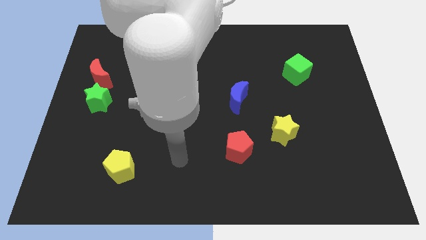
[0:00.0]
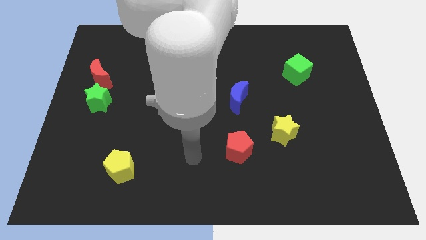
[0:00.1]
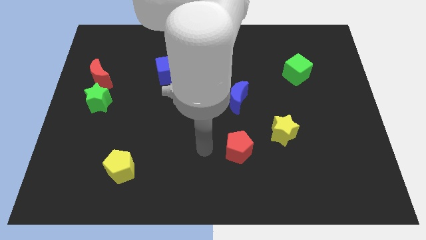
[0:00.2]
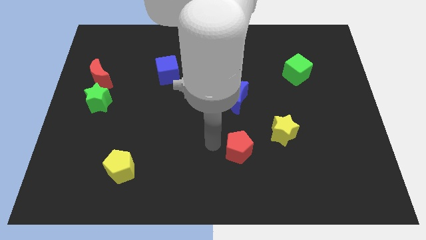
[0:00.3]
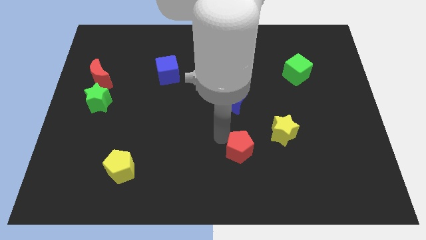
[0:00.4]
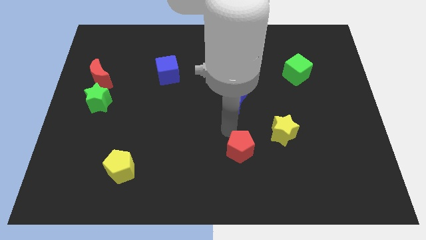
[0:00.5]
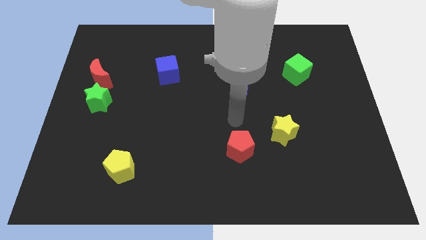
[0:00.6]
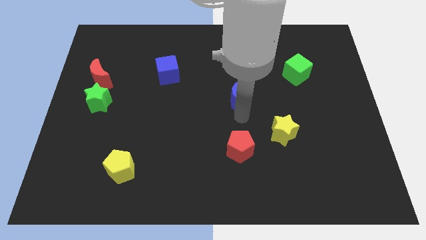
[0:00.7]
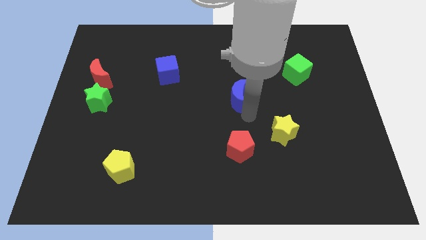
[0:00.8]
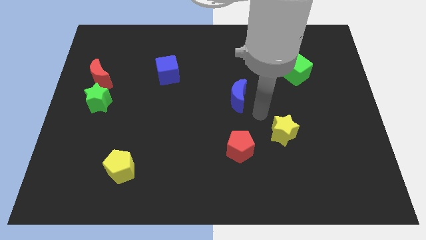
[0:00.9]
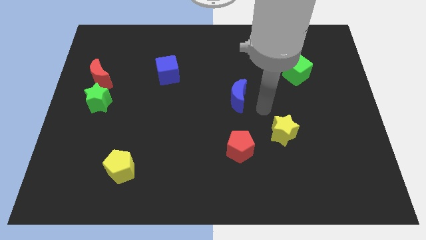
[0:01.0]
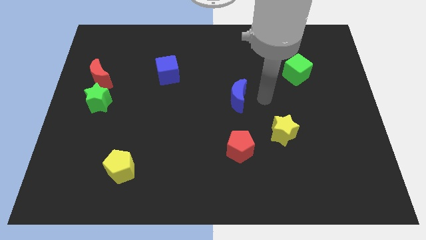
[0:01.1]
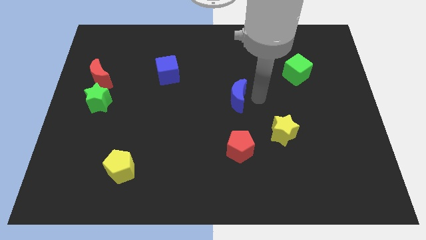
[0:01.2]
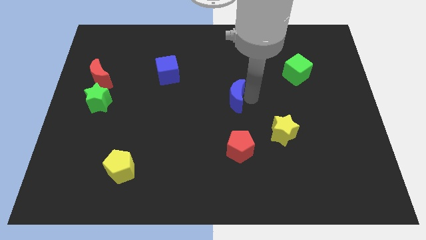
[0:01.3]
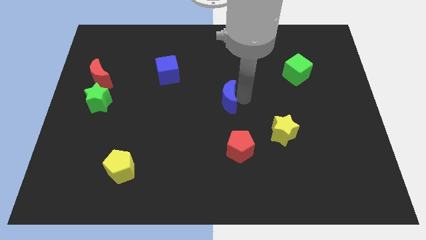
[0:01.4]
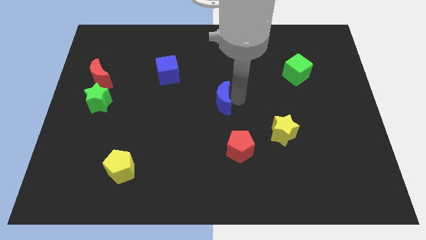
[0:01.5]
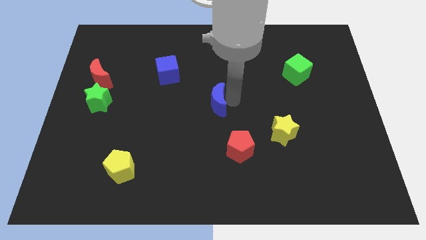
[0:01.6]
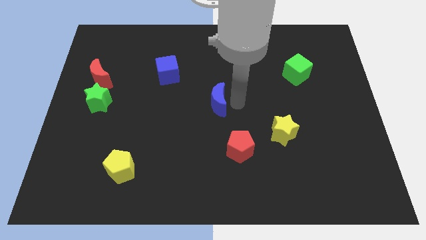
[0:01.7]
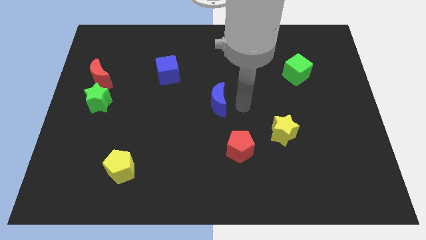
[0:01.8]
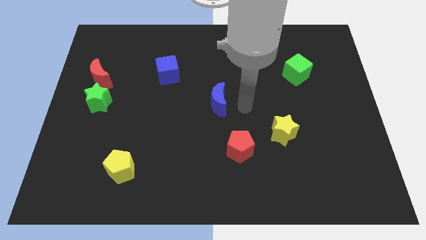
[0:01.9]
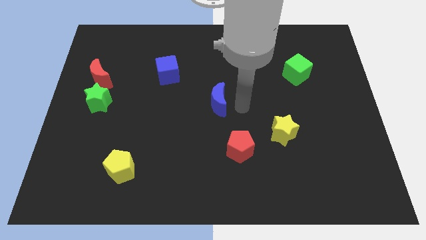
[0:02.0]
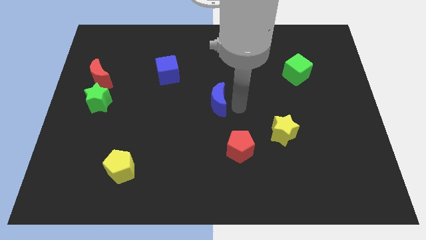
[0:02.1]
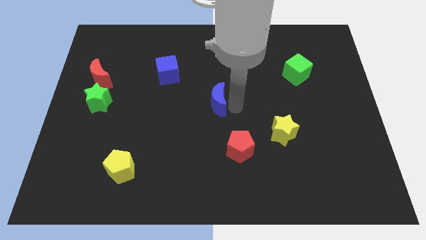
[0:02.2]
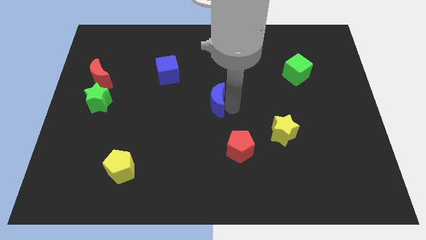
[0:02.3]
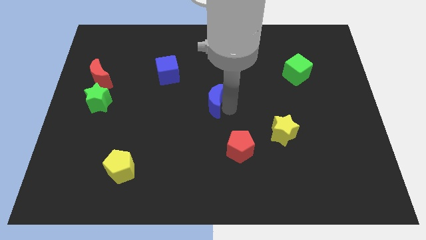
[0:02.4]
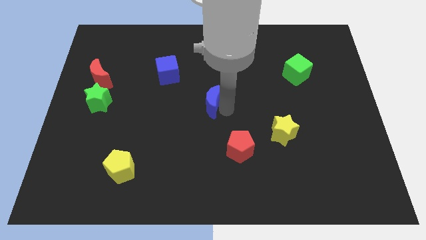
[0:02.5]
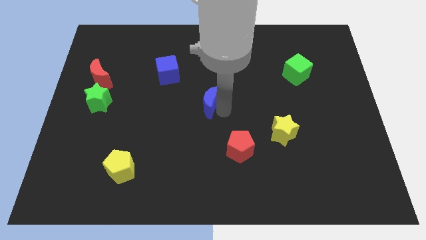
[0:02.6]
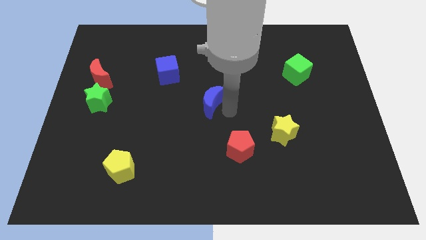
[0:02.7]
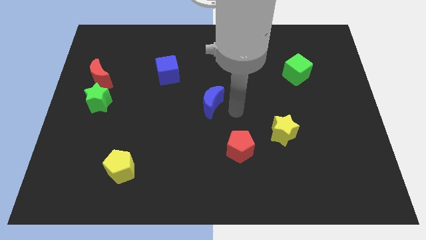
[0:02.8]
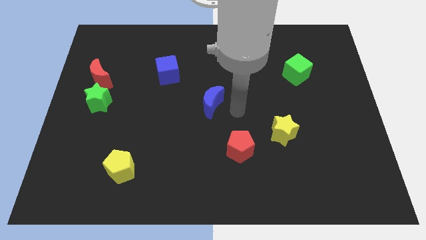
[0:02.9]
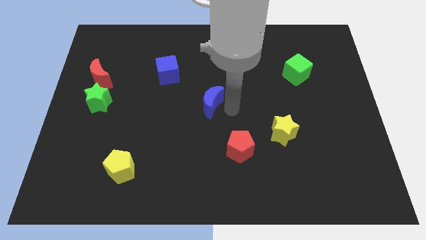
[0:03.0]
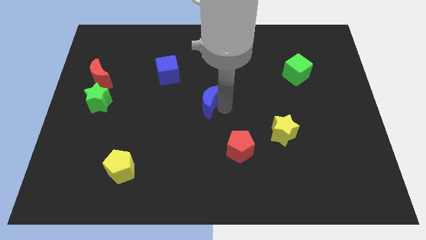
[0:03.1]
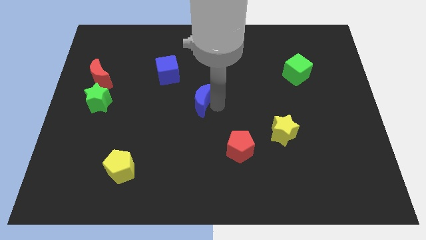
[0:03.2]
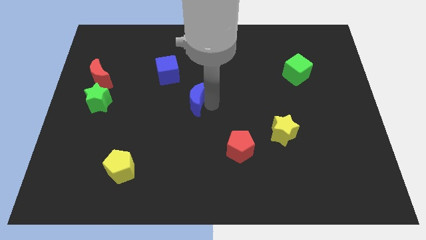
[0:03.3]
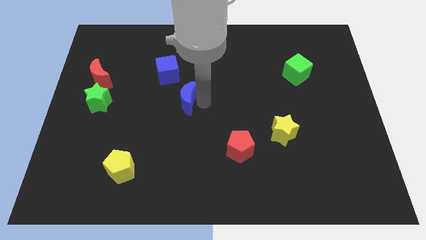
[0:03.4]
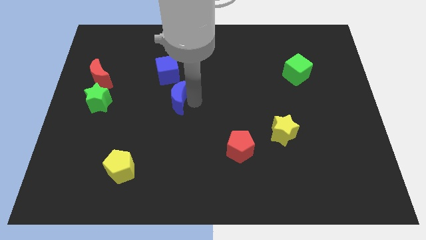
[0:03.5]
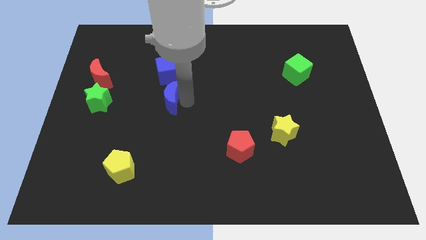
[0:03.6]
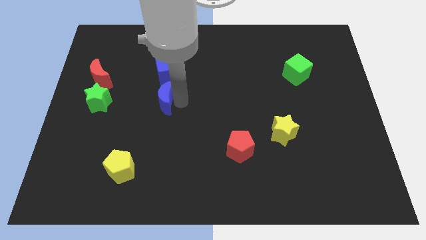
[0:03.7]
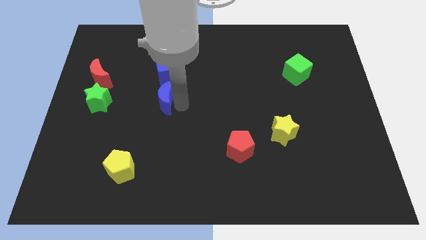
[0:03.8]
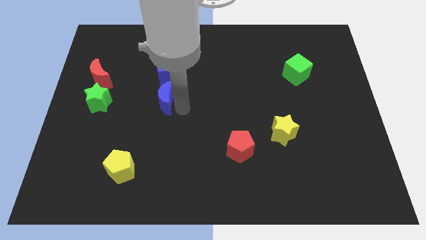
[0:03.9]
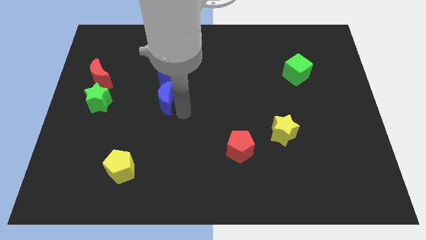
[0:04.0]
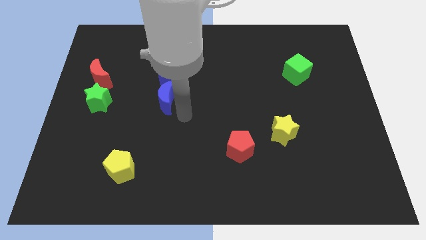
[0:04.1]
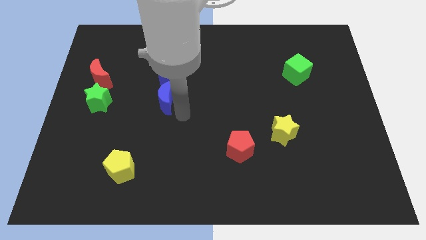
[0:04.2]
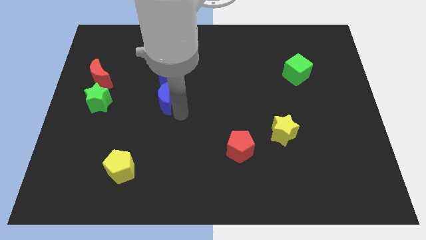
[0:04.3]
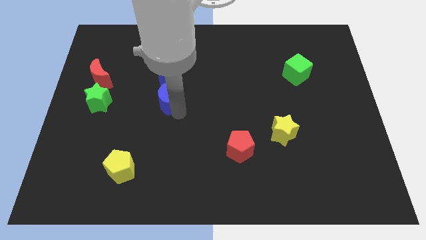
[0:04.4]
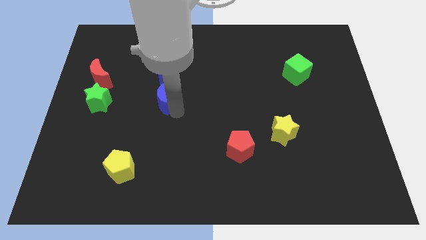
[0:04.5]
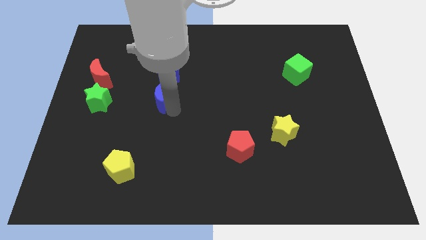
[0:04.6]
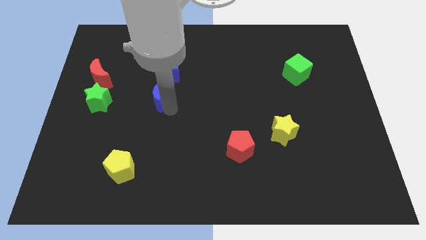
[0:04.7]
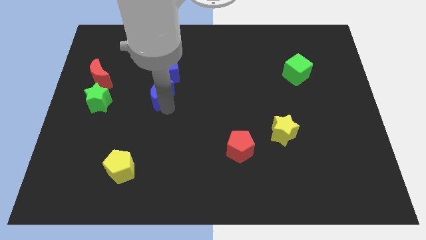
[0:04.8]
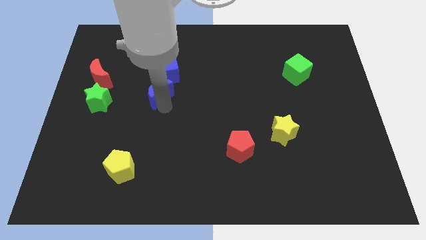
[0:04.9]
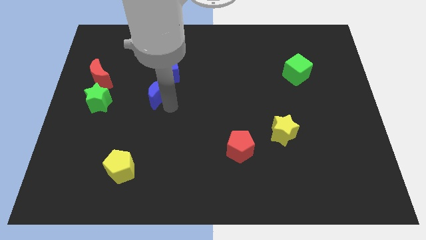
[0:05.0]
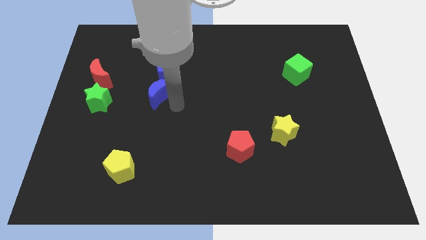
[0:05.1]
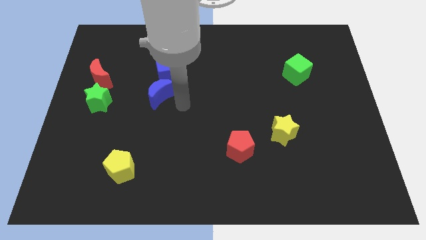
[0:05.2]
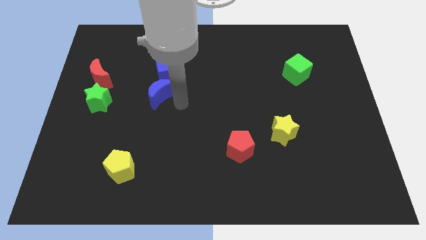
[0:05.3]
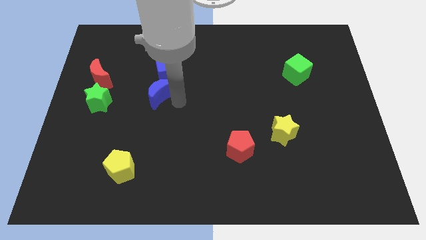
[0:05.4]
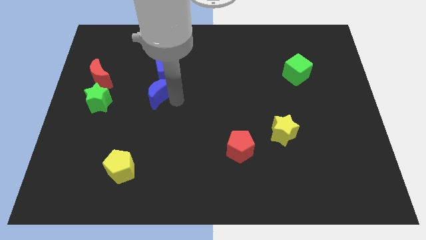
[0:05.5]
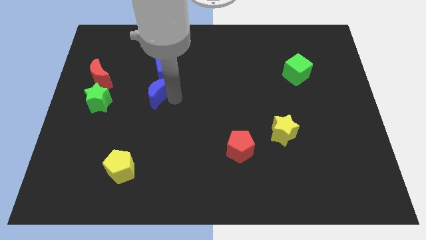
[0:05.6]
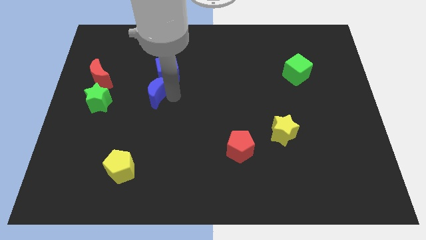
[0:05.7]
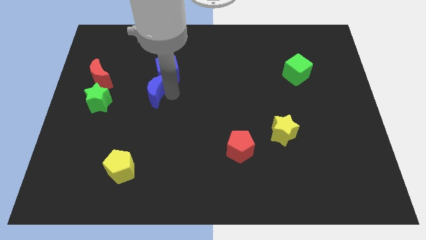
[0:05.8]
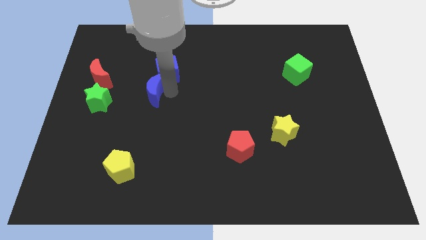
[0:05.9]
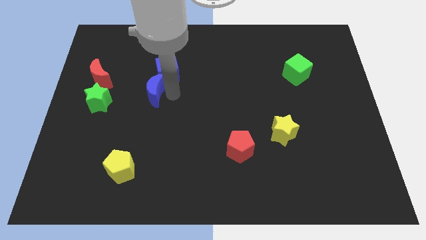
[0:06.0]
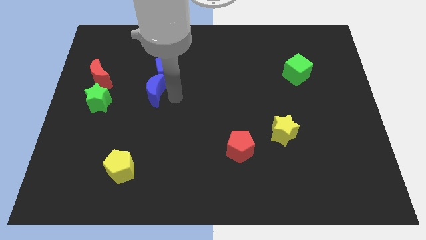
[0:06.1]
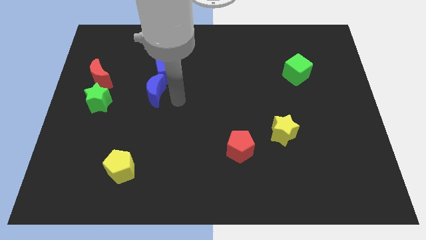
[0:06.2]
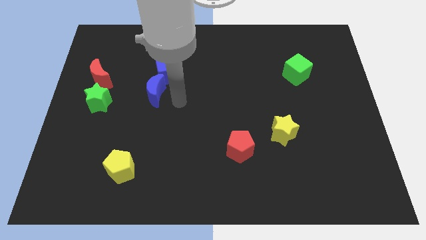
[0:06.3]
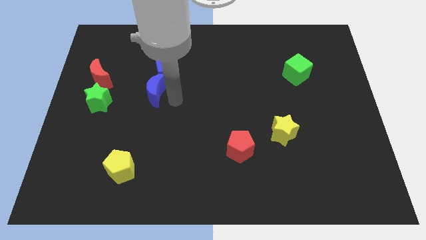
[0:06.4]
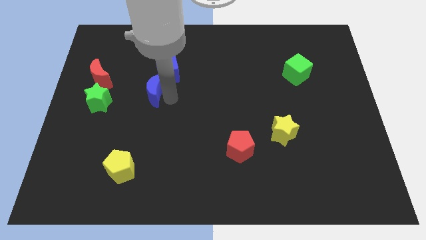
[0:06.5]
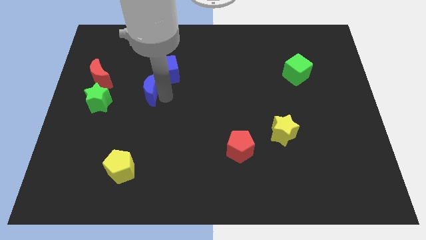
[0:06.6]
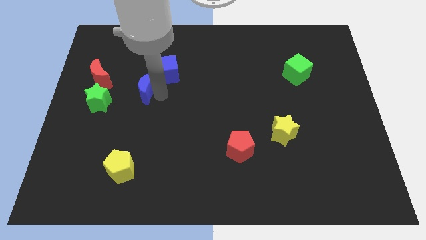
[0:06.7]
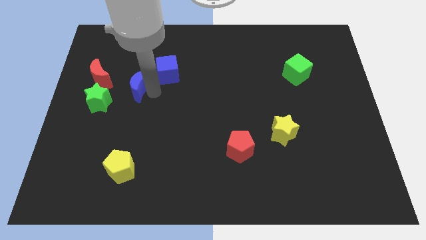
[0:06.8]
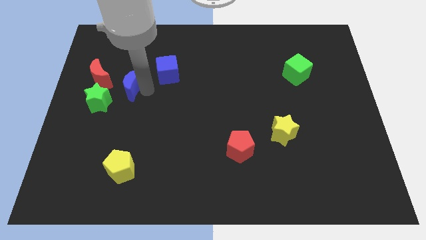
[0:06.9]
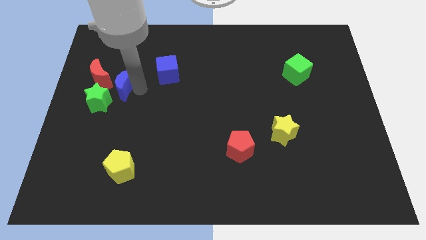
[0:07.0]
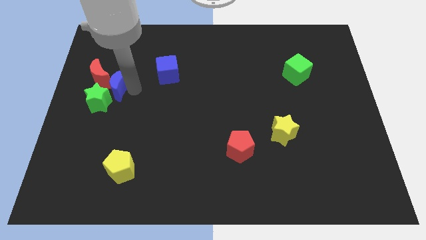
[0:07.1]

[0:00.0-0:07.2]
put the blue moon to the red moon
